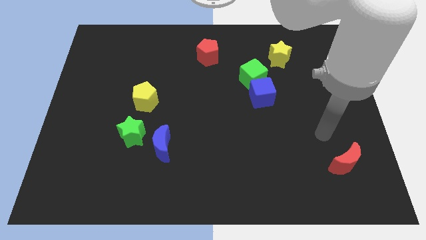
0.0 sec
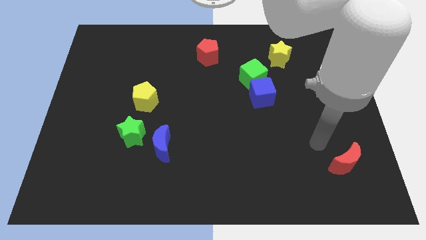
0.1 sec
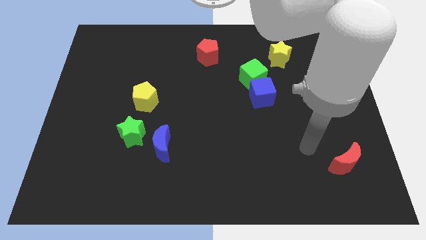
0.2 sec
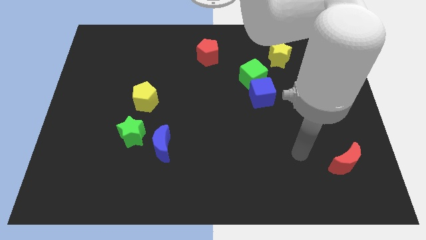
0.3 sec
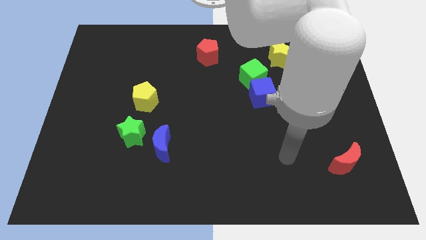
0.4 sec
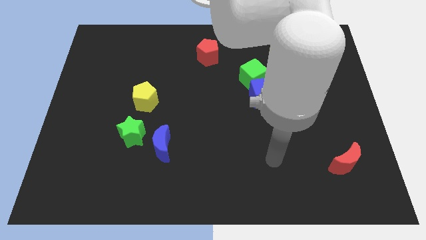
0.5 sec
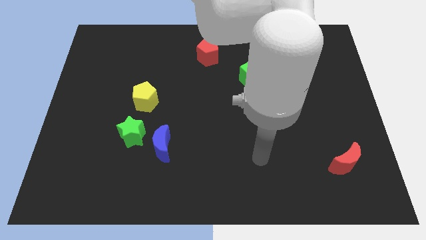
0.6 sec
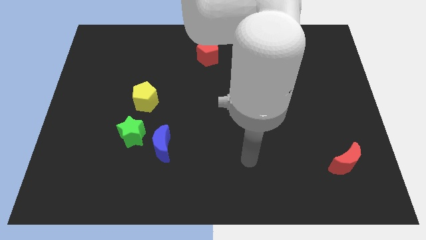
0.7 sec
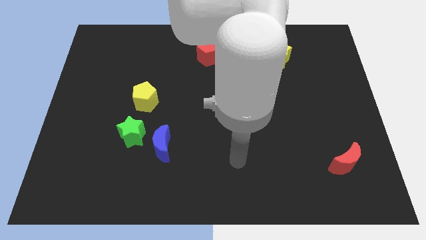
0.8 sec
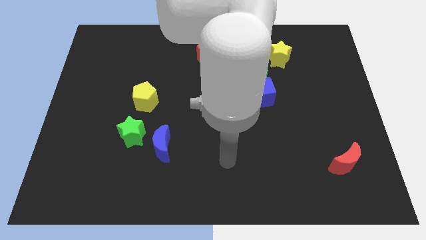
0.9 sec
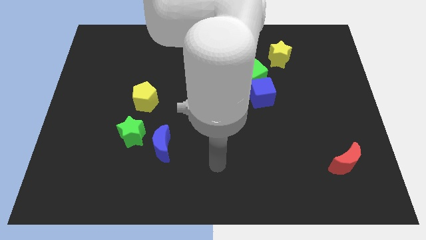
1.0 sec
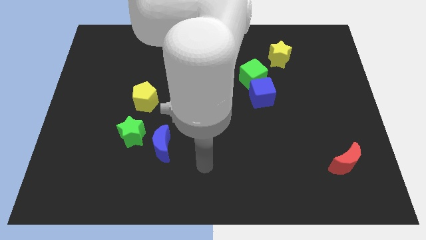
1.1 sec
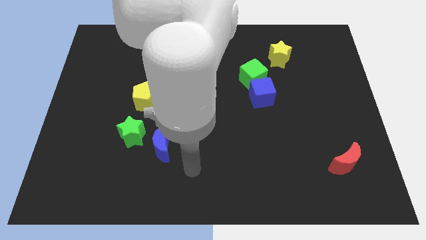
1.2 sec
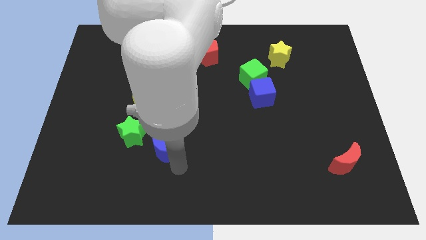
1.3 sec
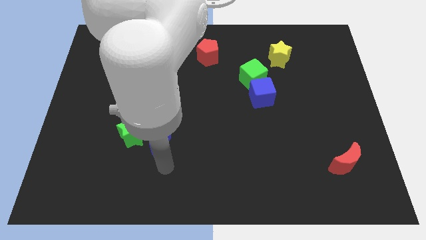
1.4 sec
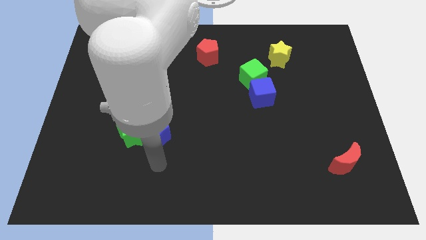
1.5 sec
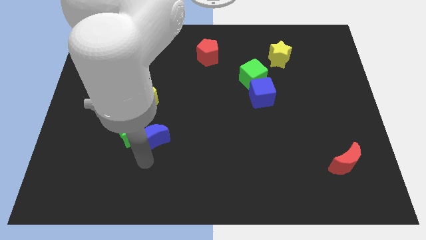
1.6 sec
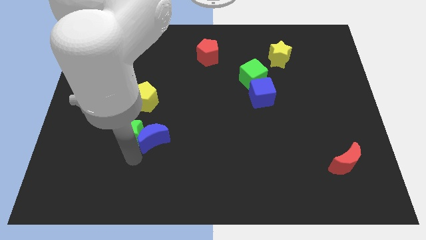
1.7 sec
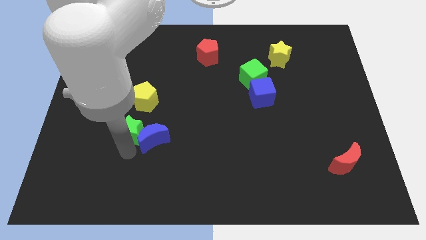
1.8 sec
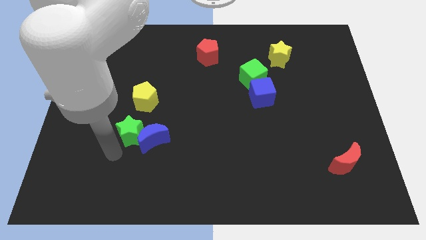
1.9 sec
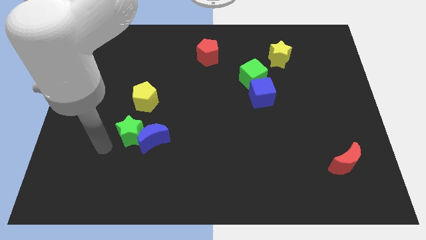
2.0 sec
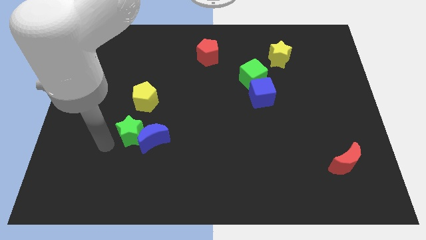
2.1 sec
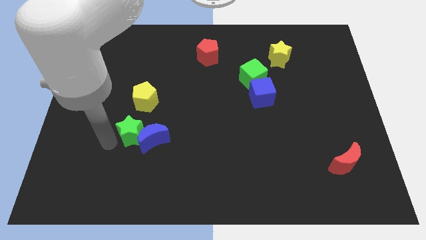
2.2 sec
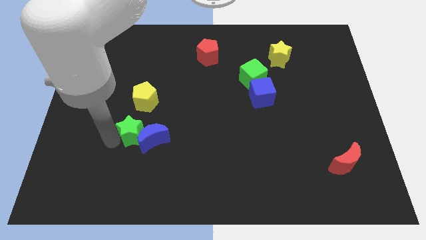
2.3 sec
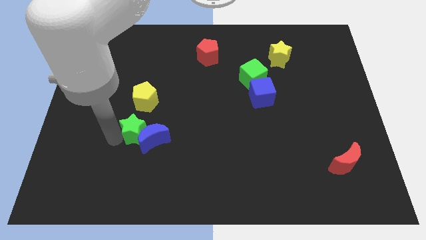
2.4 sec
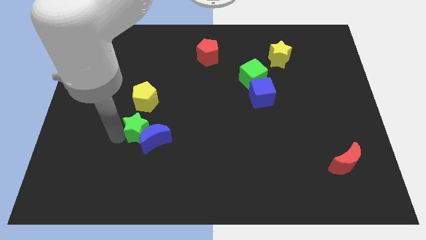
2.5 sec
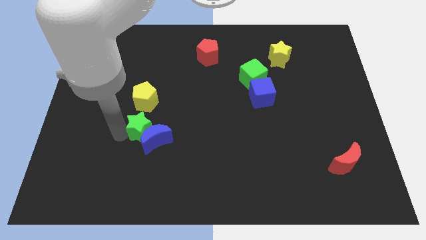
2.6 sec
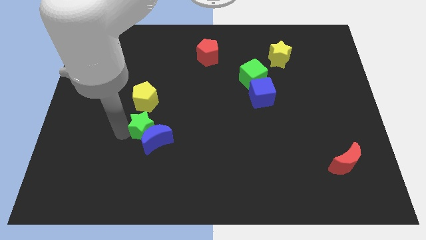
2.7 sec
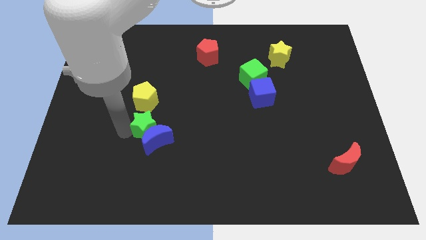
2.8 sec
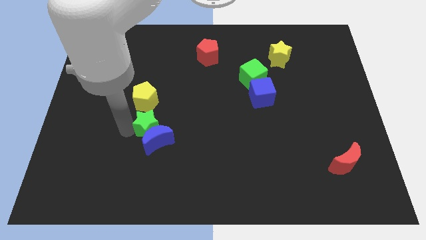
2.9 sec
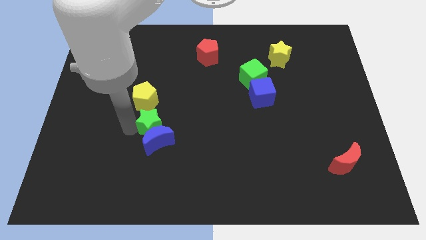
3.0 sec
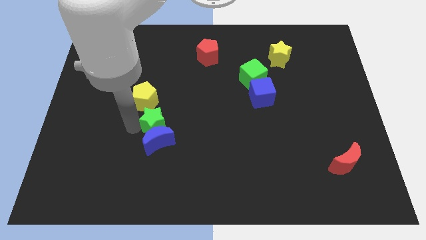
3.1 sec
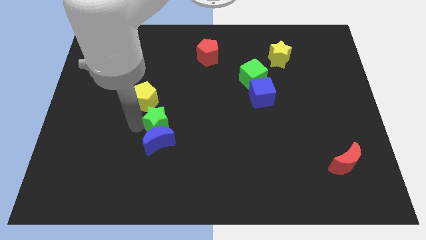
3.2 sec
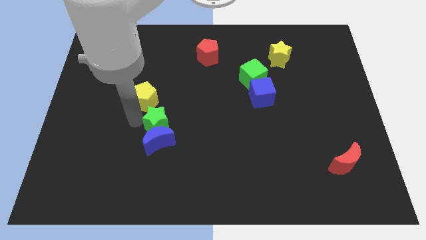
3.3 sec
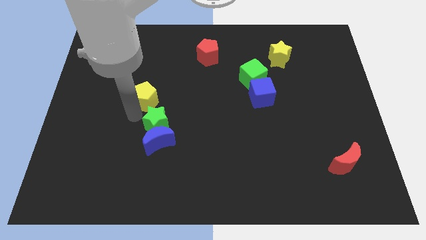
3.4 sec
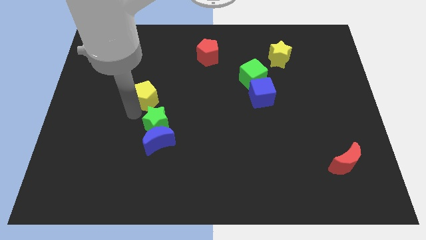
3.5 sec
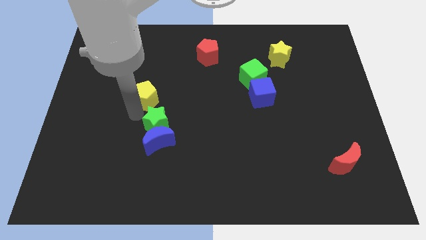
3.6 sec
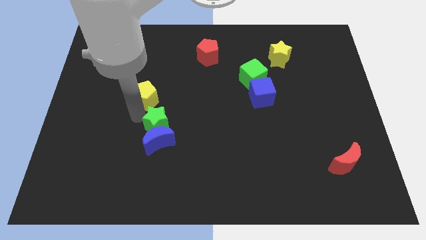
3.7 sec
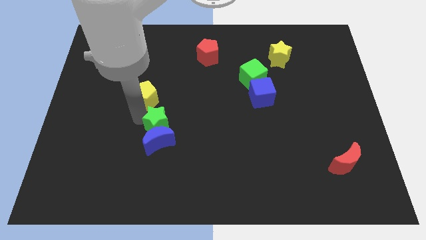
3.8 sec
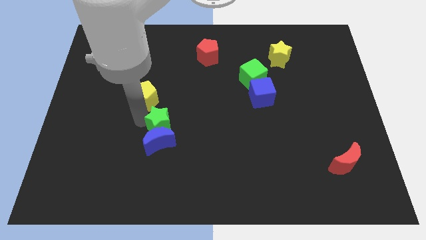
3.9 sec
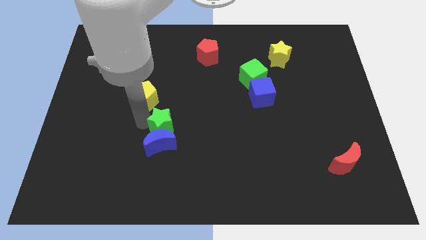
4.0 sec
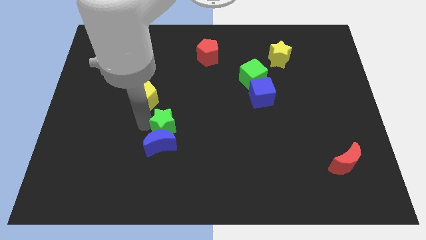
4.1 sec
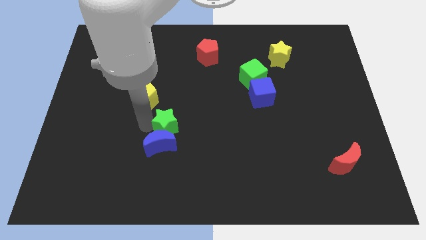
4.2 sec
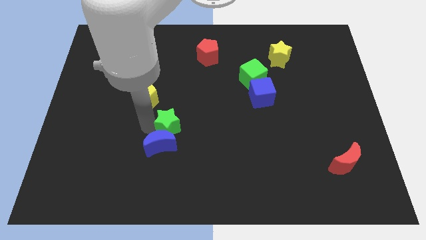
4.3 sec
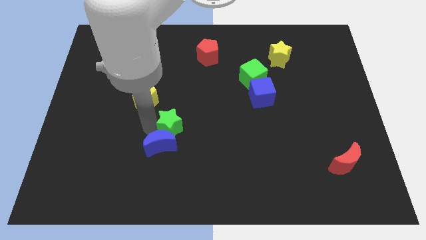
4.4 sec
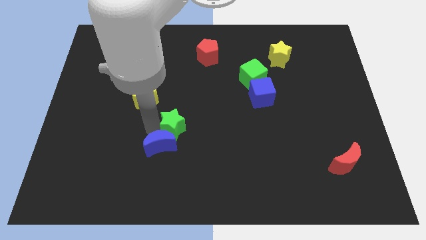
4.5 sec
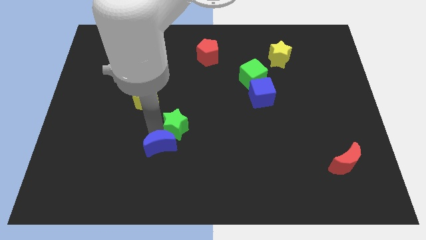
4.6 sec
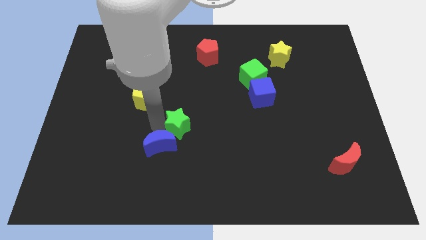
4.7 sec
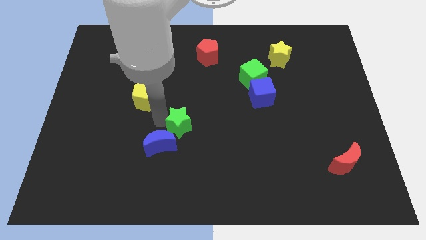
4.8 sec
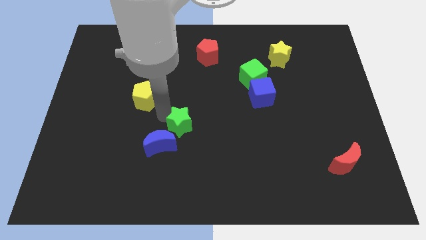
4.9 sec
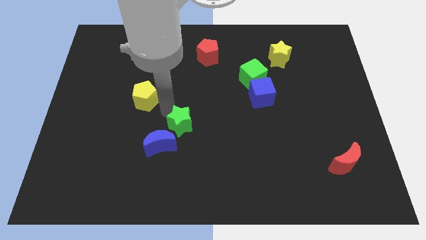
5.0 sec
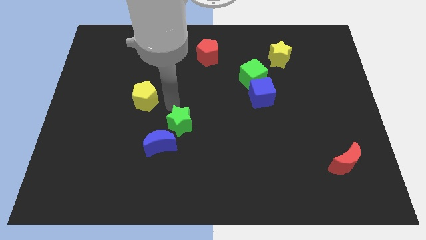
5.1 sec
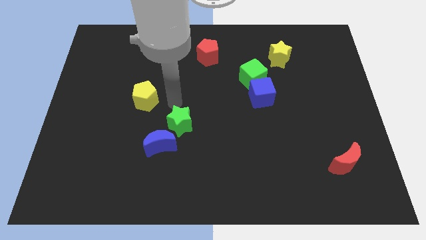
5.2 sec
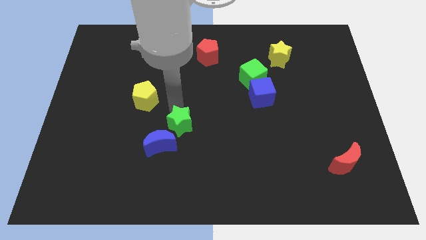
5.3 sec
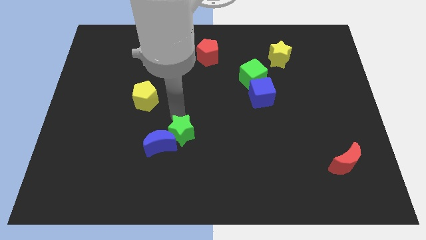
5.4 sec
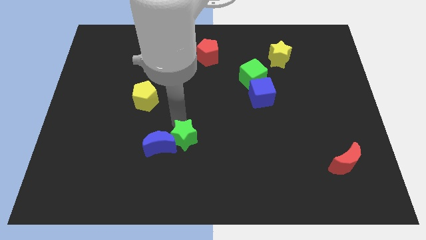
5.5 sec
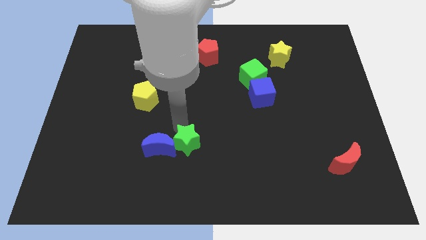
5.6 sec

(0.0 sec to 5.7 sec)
put the green star to the bottom right side of the blue moon

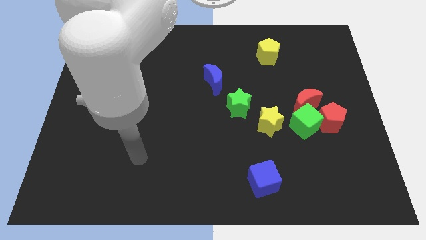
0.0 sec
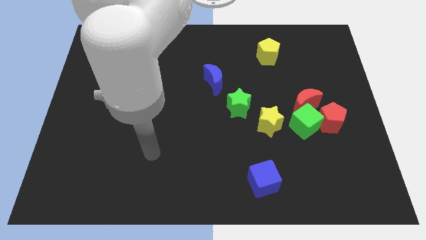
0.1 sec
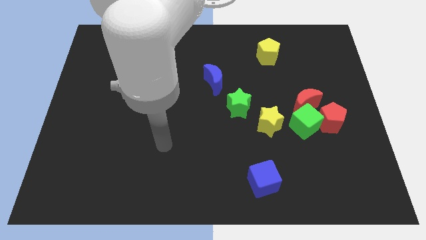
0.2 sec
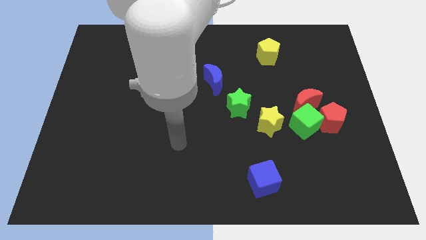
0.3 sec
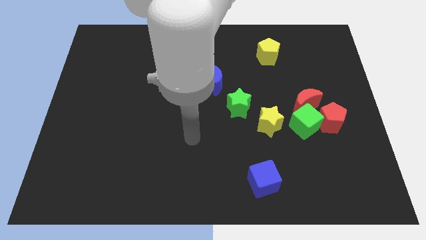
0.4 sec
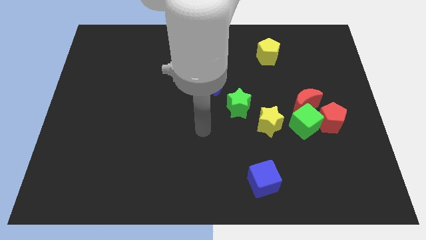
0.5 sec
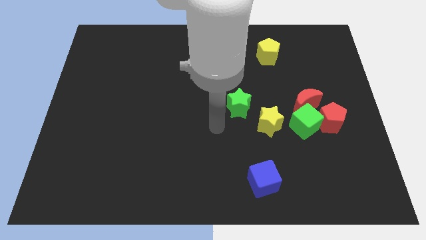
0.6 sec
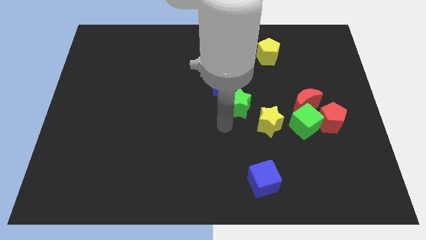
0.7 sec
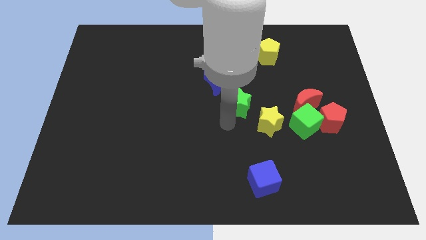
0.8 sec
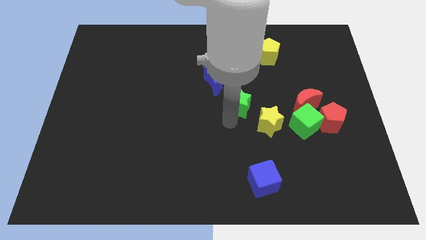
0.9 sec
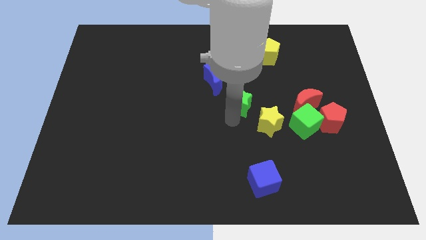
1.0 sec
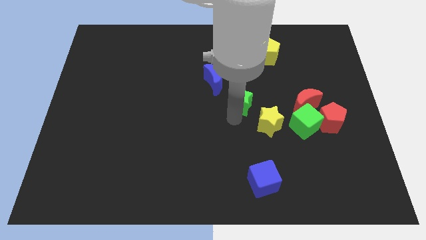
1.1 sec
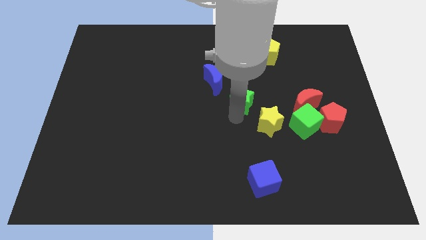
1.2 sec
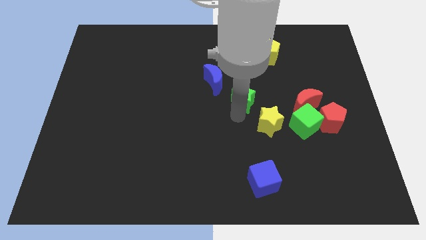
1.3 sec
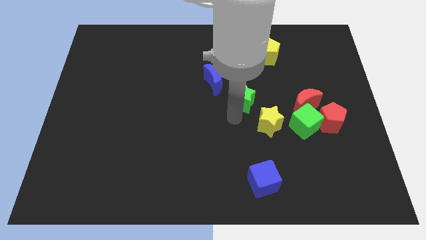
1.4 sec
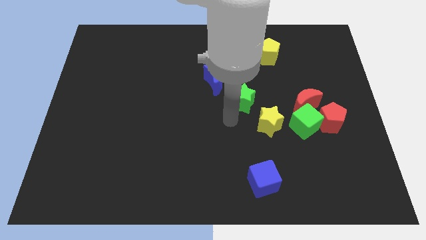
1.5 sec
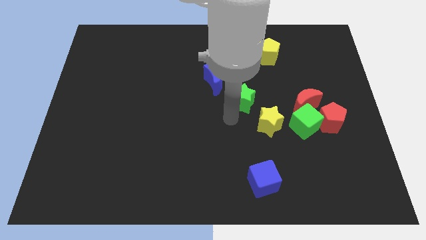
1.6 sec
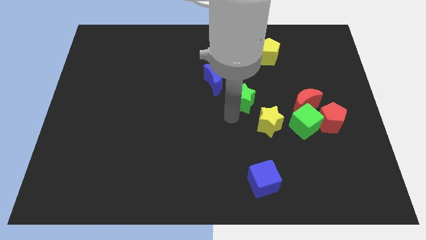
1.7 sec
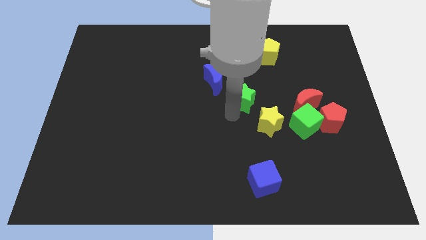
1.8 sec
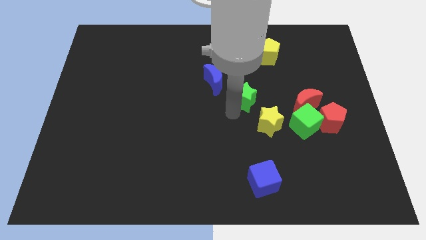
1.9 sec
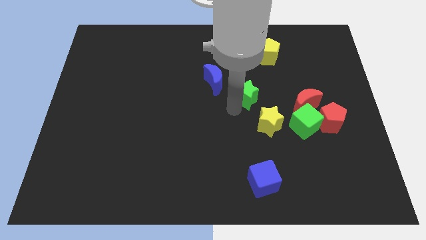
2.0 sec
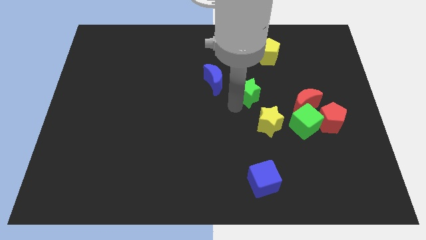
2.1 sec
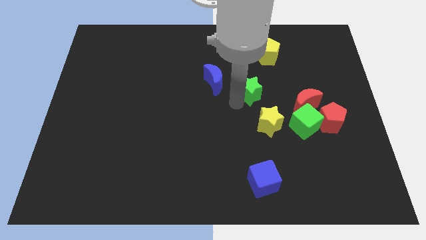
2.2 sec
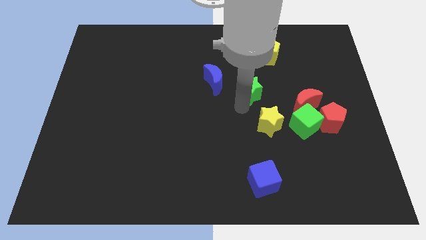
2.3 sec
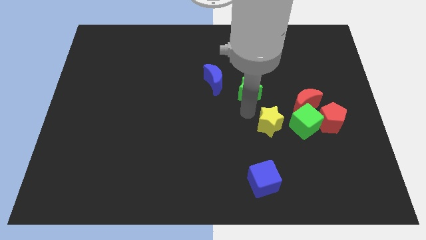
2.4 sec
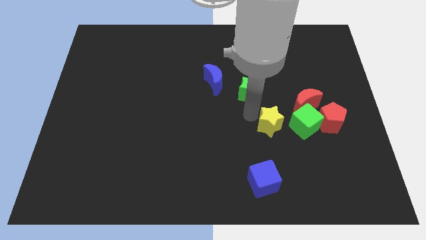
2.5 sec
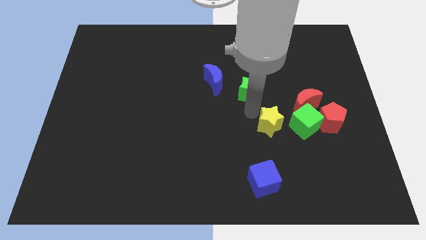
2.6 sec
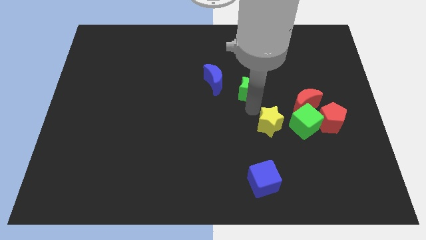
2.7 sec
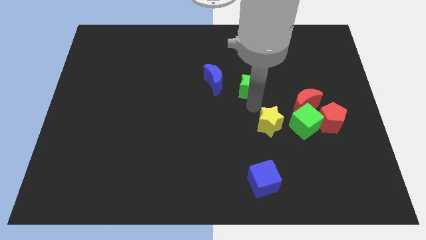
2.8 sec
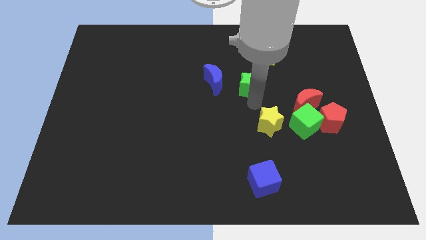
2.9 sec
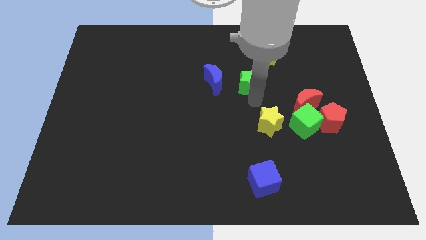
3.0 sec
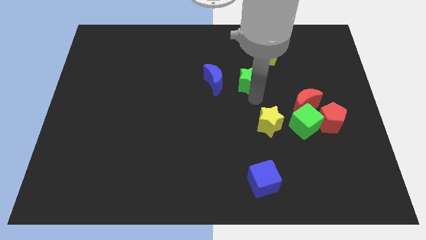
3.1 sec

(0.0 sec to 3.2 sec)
slide the green star to the bottom left side of the yellow pentagon
